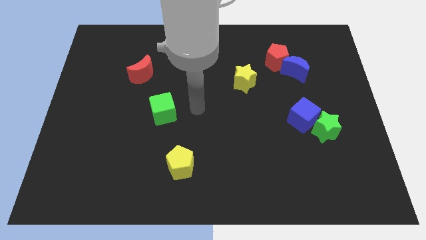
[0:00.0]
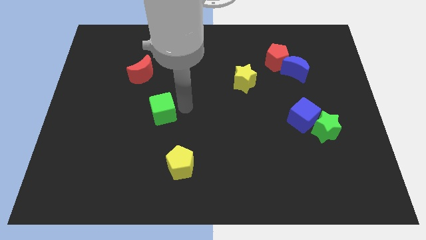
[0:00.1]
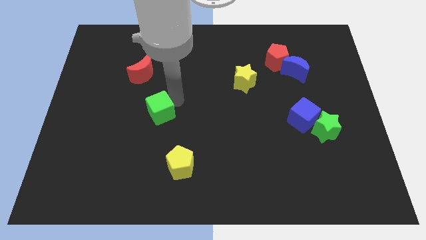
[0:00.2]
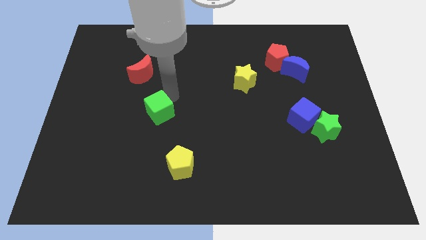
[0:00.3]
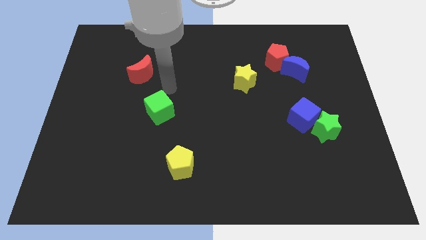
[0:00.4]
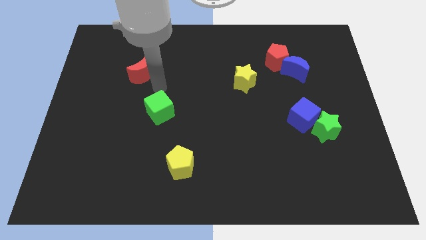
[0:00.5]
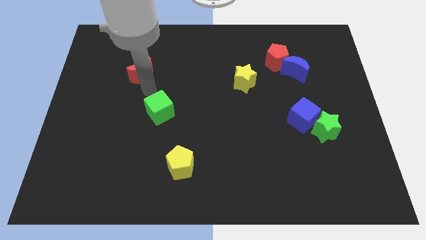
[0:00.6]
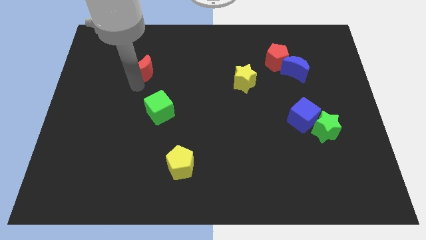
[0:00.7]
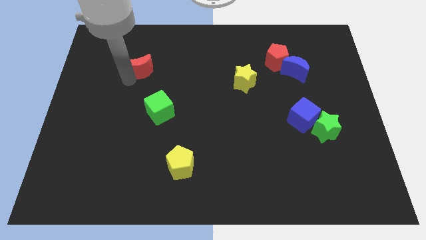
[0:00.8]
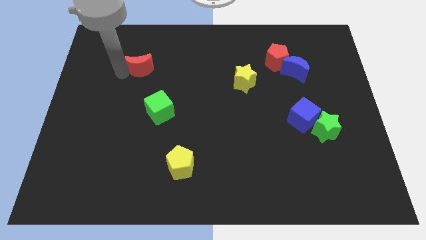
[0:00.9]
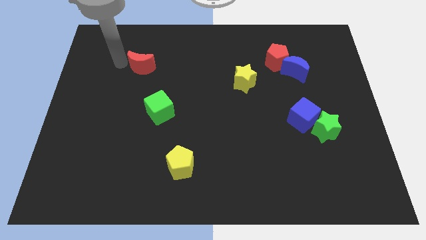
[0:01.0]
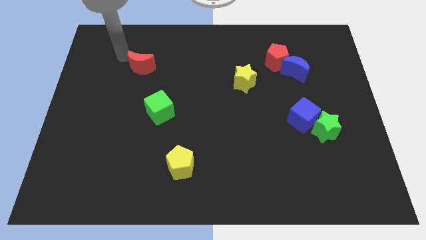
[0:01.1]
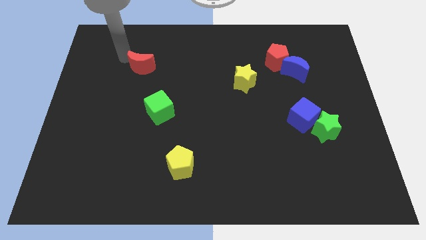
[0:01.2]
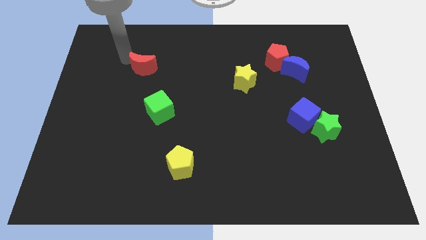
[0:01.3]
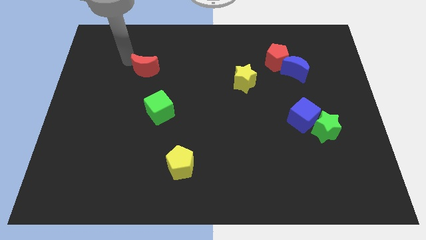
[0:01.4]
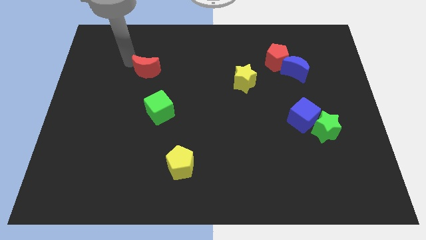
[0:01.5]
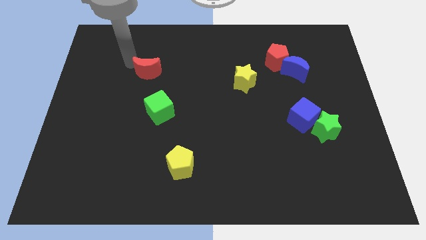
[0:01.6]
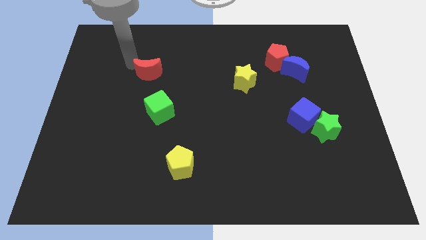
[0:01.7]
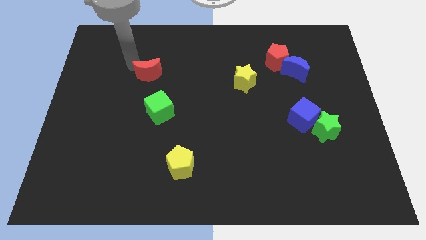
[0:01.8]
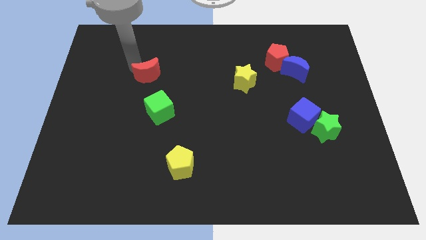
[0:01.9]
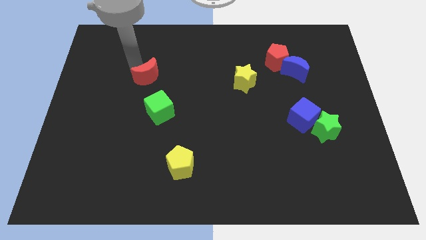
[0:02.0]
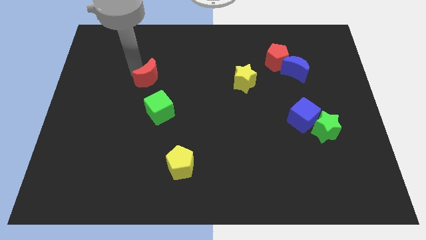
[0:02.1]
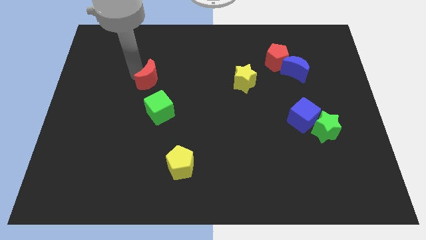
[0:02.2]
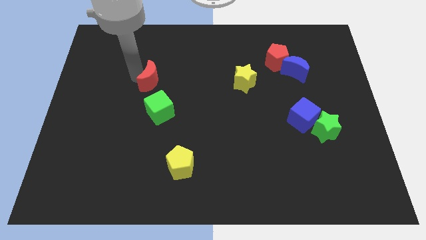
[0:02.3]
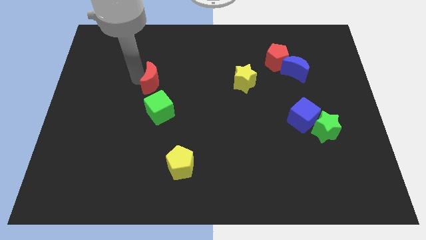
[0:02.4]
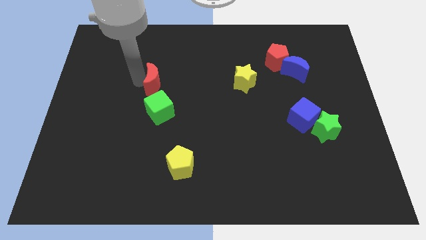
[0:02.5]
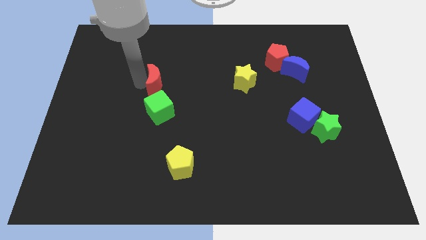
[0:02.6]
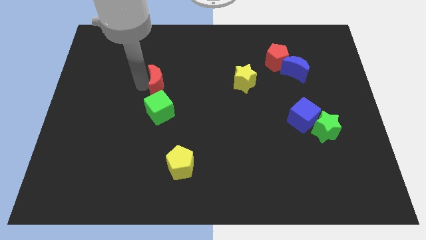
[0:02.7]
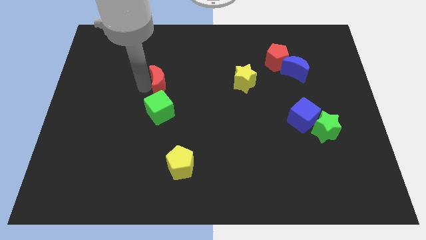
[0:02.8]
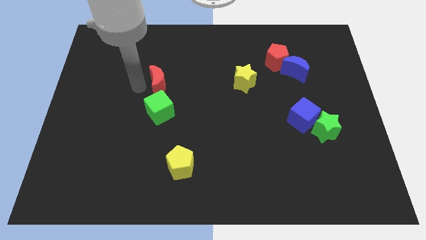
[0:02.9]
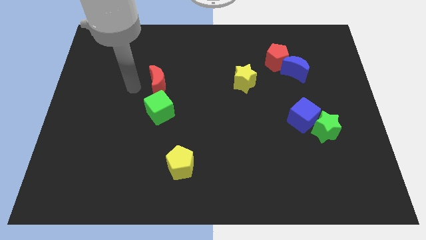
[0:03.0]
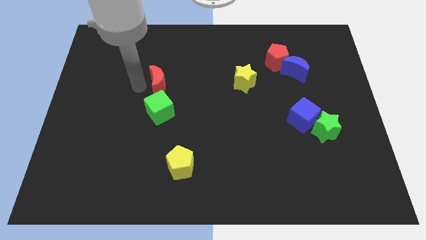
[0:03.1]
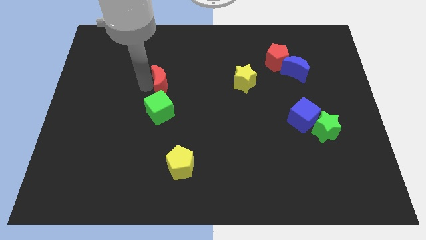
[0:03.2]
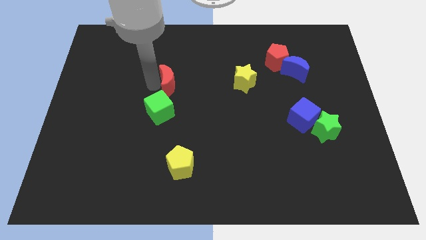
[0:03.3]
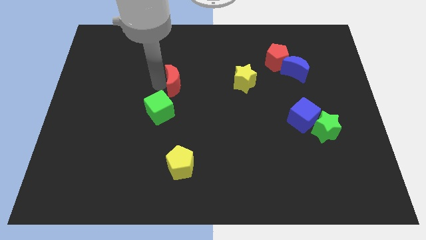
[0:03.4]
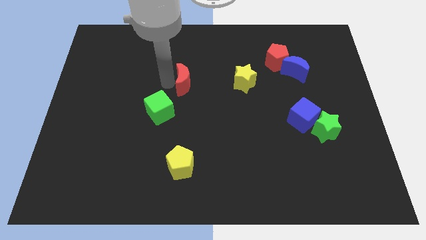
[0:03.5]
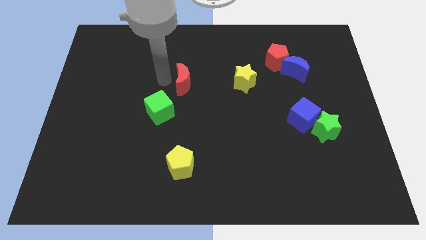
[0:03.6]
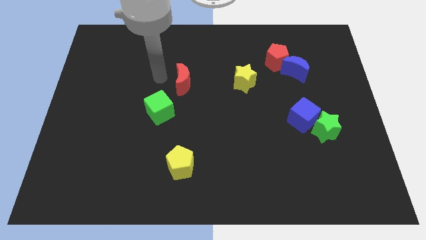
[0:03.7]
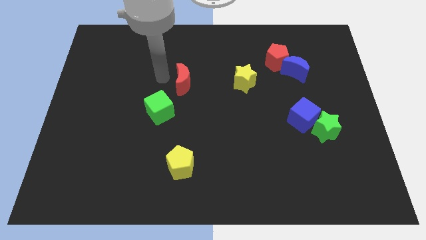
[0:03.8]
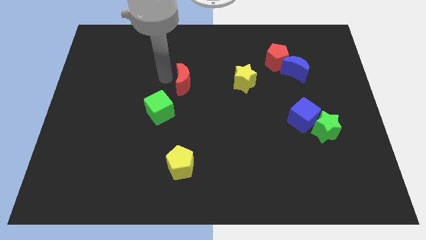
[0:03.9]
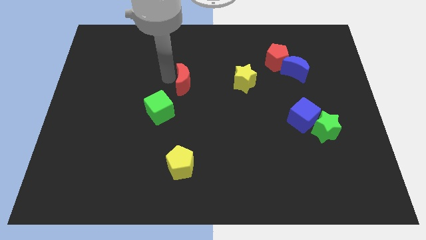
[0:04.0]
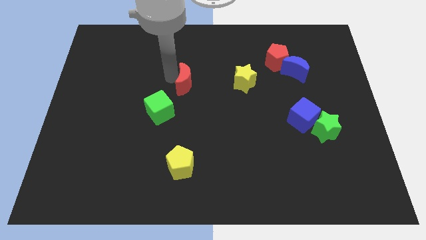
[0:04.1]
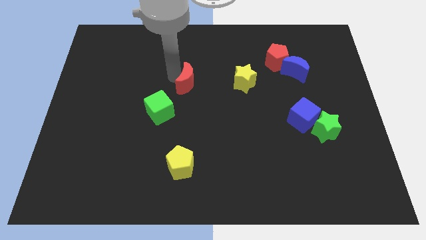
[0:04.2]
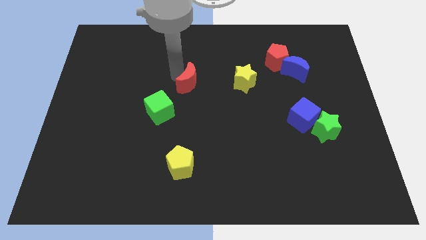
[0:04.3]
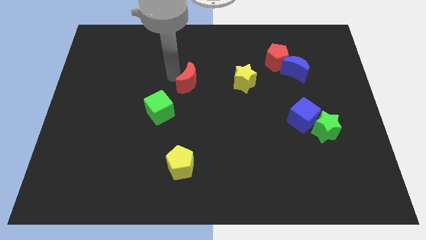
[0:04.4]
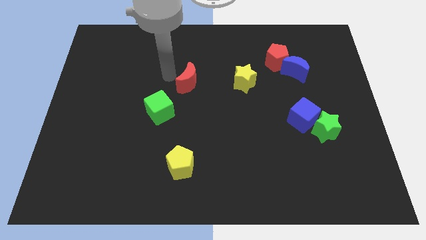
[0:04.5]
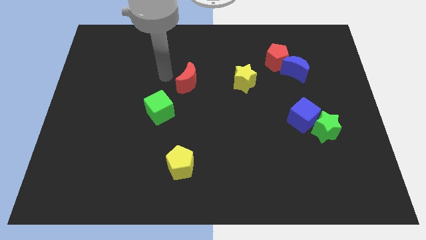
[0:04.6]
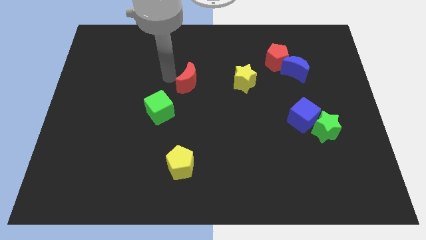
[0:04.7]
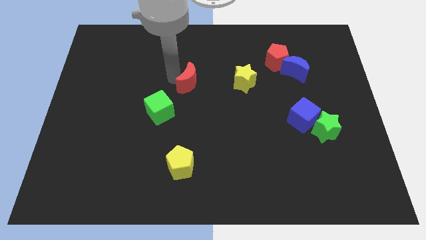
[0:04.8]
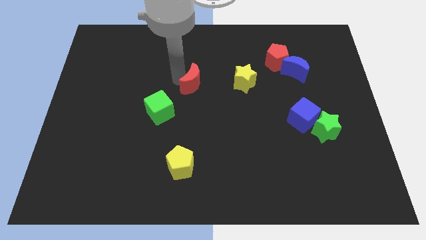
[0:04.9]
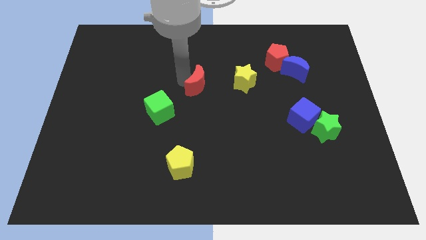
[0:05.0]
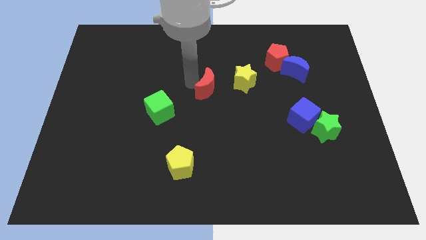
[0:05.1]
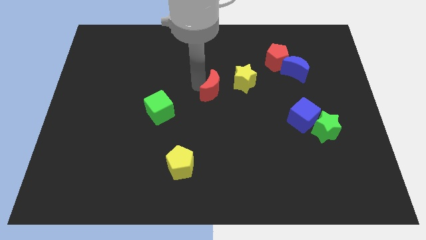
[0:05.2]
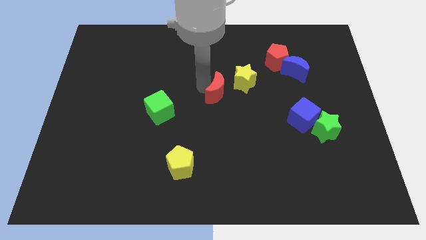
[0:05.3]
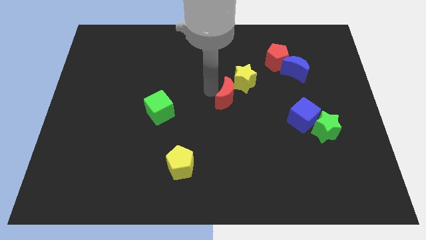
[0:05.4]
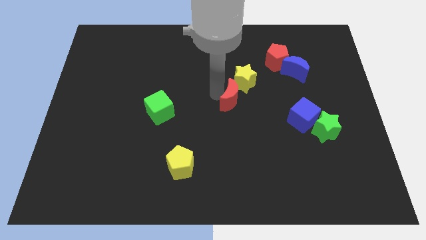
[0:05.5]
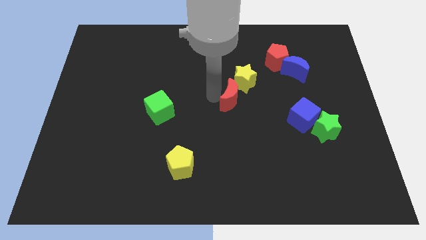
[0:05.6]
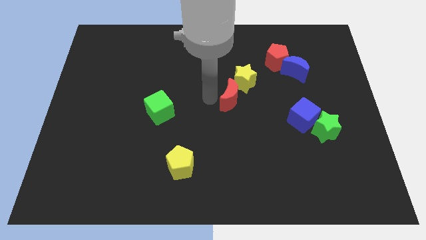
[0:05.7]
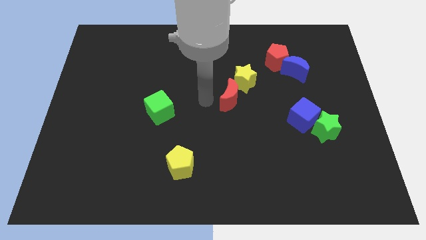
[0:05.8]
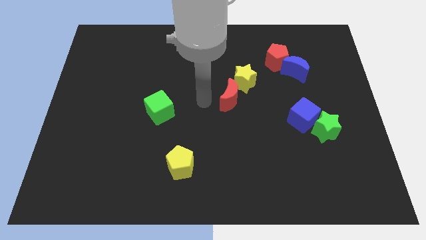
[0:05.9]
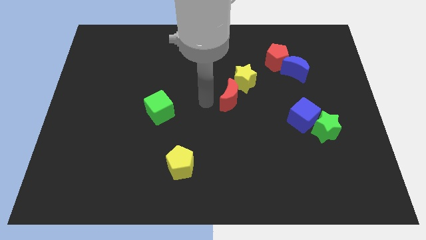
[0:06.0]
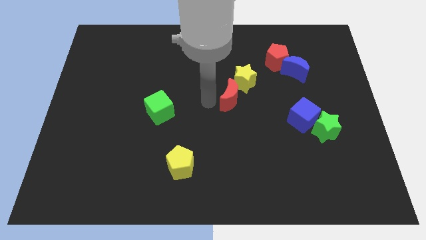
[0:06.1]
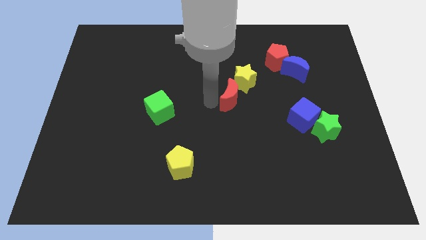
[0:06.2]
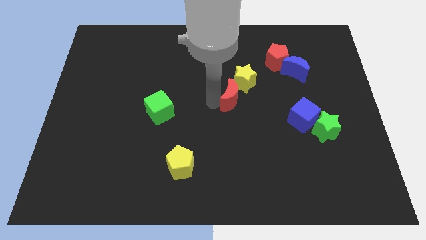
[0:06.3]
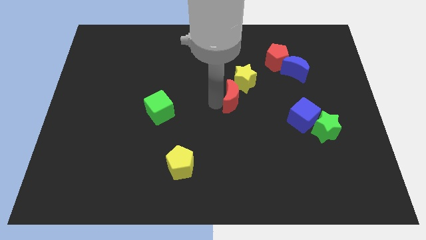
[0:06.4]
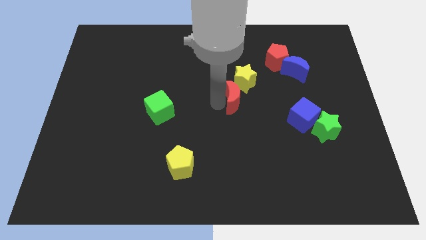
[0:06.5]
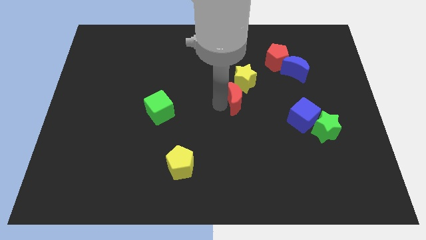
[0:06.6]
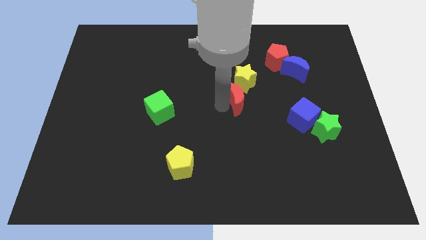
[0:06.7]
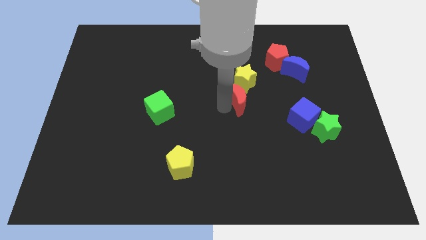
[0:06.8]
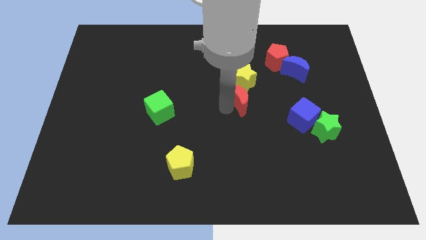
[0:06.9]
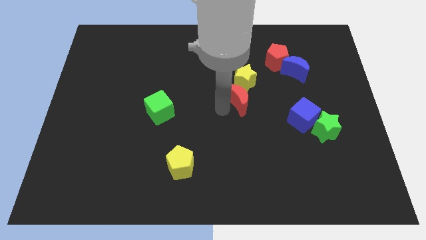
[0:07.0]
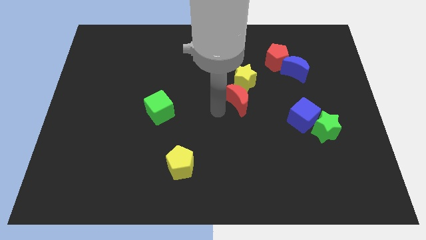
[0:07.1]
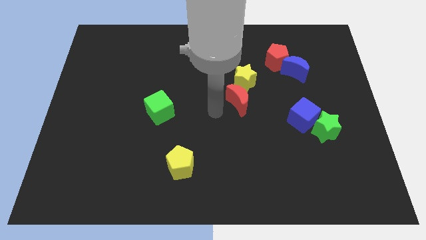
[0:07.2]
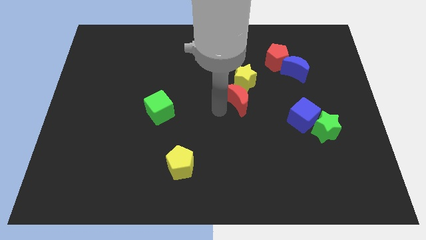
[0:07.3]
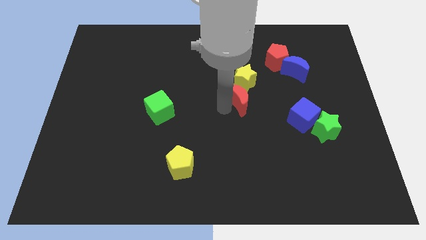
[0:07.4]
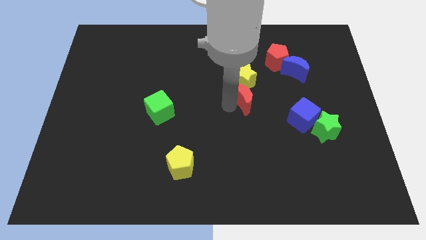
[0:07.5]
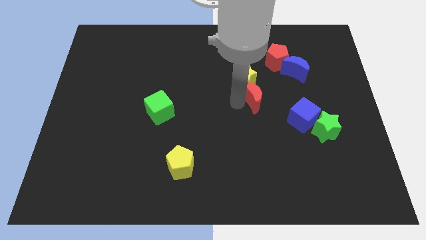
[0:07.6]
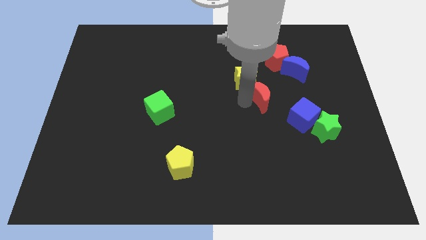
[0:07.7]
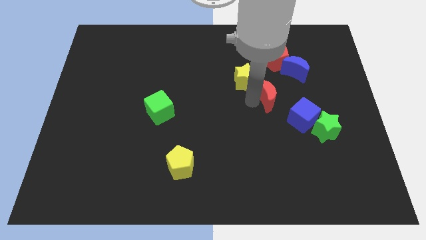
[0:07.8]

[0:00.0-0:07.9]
push the red moon diagonally down and to the left of the blue moon
